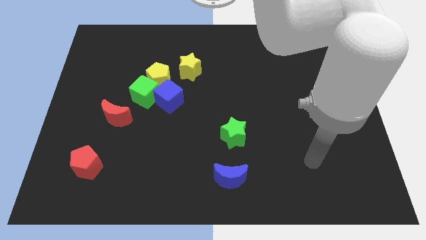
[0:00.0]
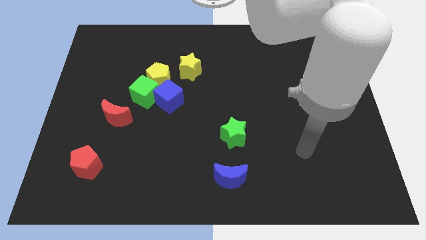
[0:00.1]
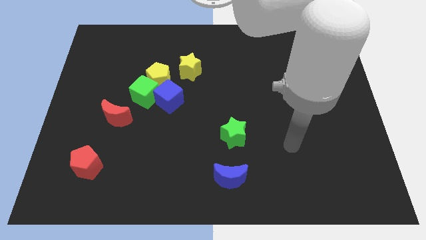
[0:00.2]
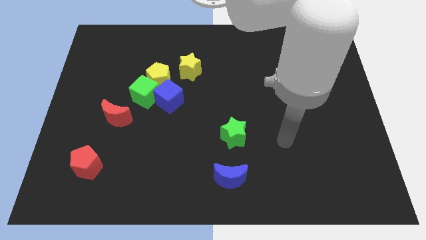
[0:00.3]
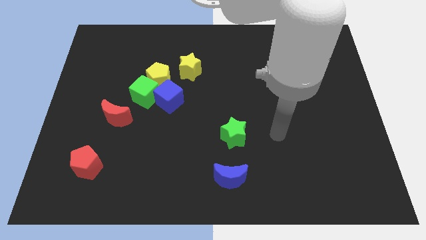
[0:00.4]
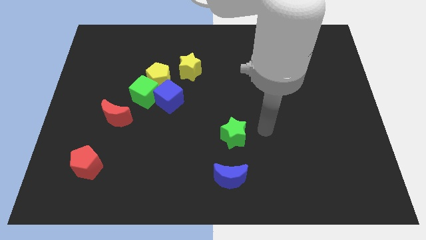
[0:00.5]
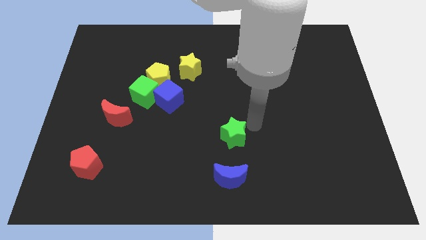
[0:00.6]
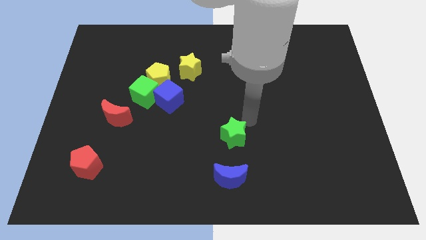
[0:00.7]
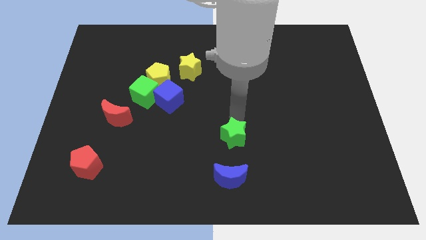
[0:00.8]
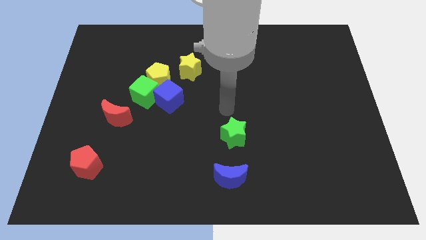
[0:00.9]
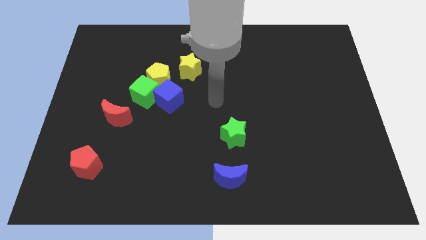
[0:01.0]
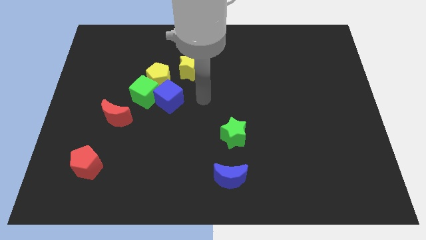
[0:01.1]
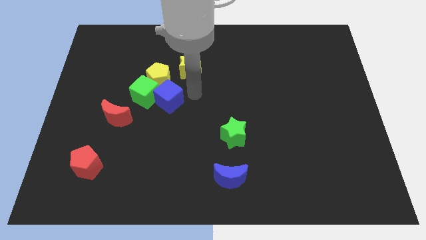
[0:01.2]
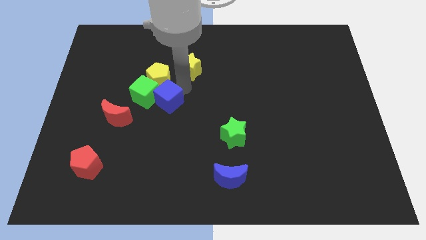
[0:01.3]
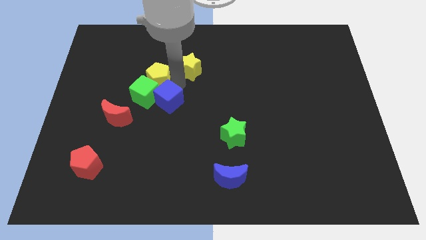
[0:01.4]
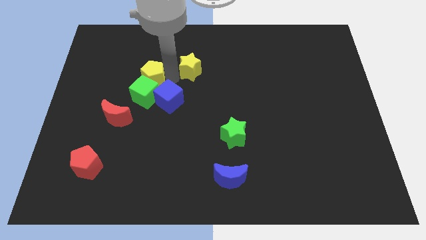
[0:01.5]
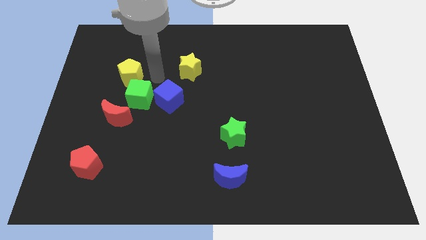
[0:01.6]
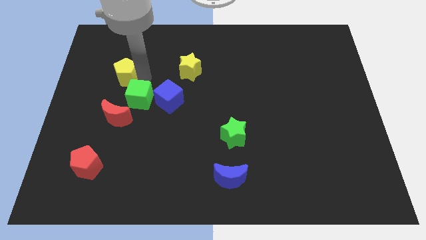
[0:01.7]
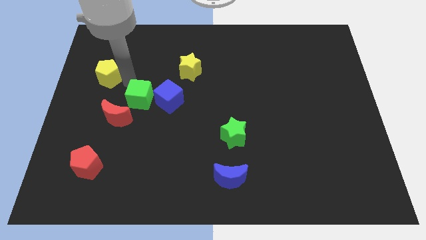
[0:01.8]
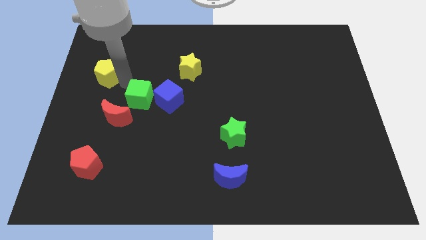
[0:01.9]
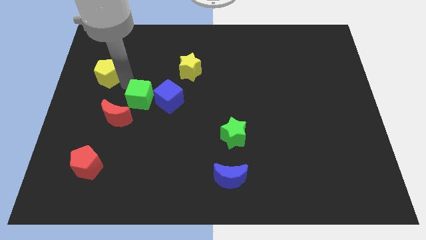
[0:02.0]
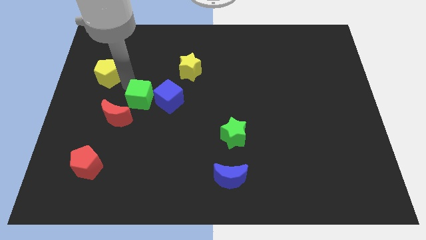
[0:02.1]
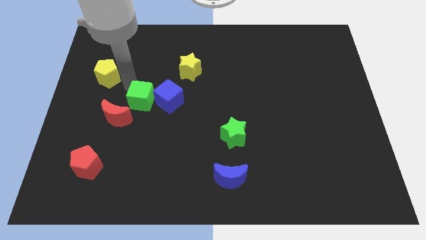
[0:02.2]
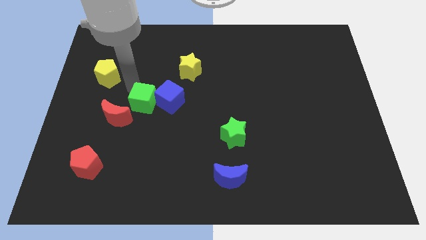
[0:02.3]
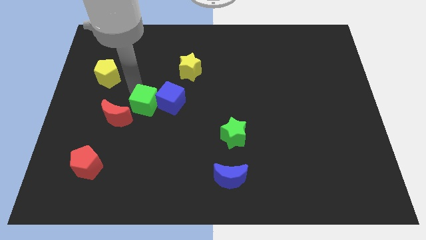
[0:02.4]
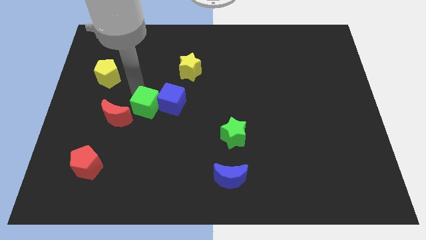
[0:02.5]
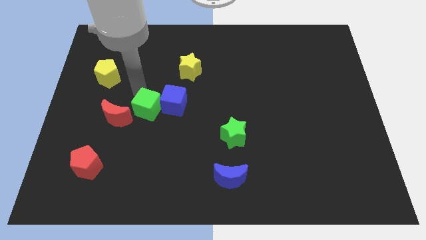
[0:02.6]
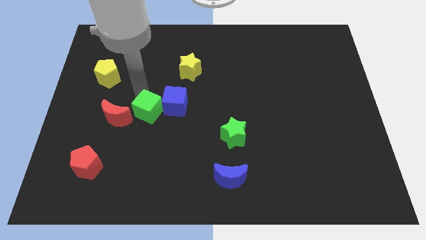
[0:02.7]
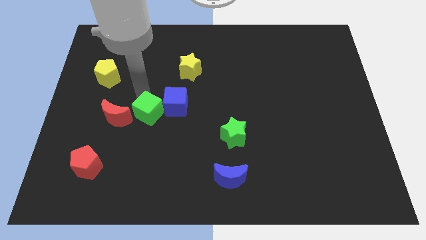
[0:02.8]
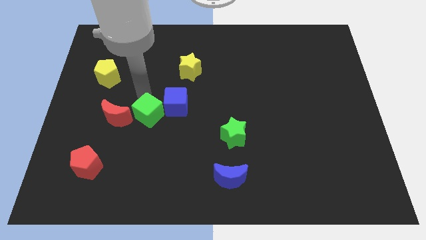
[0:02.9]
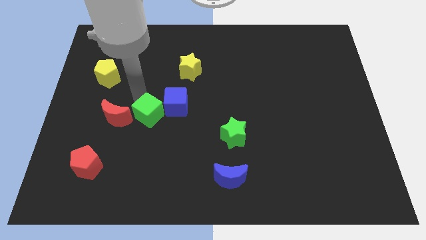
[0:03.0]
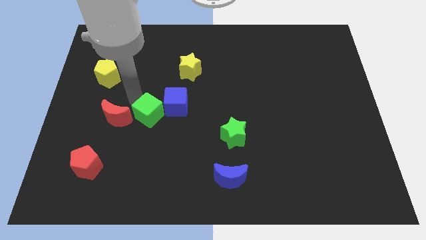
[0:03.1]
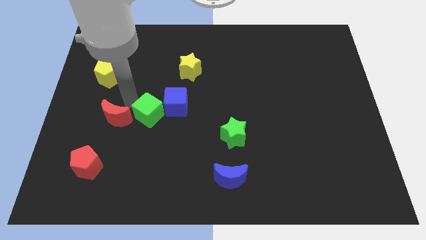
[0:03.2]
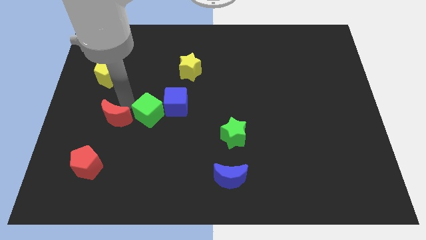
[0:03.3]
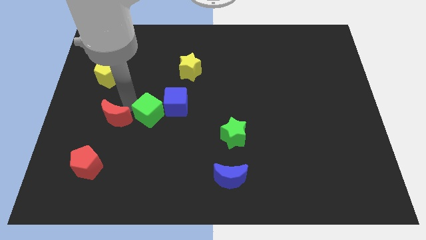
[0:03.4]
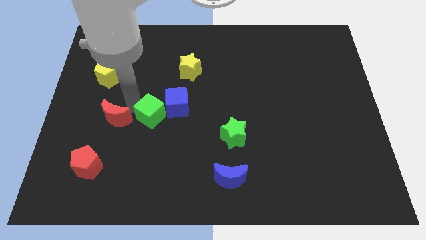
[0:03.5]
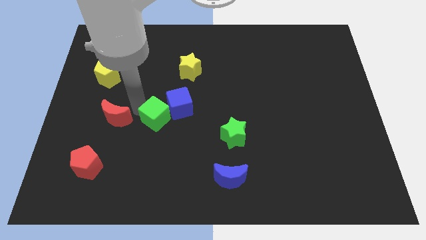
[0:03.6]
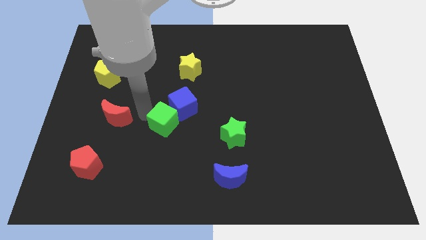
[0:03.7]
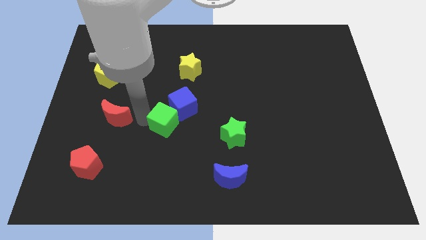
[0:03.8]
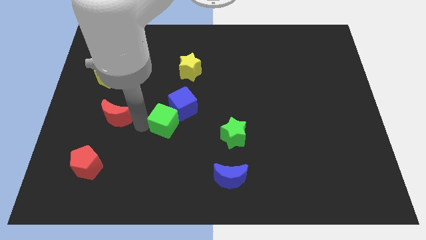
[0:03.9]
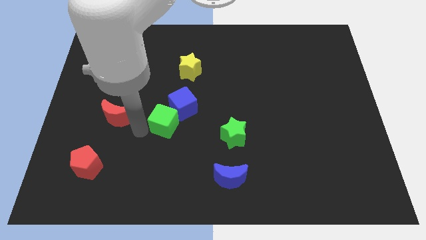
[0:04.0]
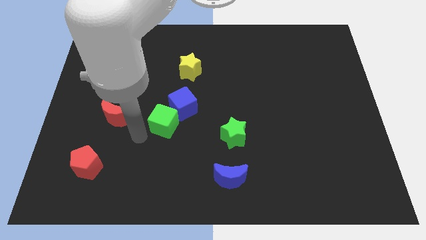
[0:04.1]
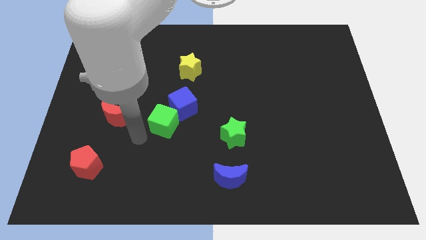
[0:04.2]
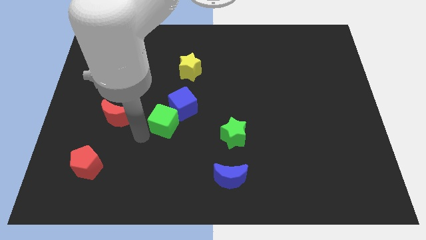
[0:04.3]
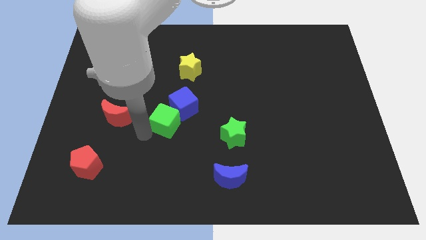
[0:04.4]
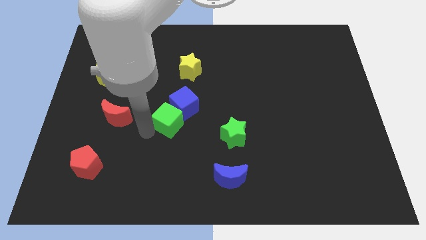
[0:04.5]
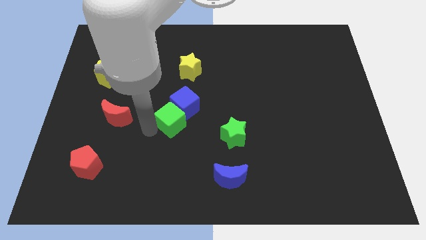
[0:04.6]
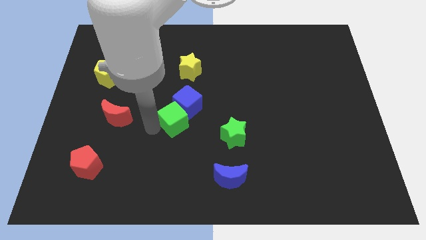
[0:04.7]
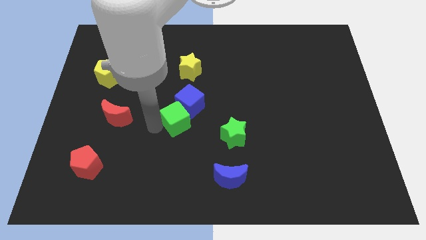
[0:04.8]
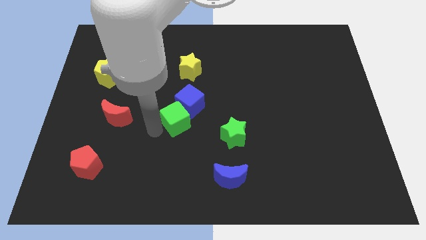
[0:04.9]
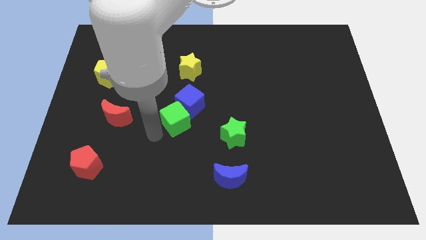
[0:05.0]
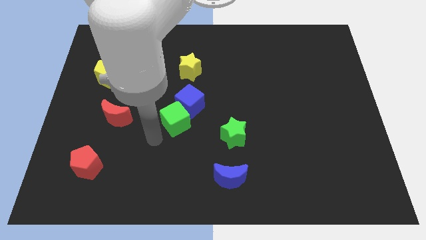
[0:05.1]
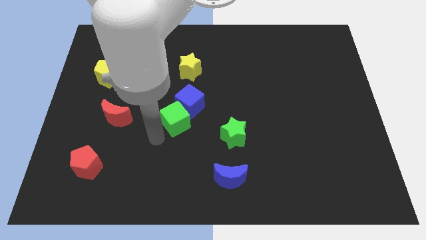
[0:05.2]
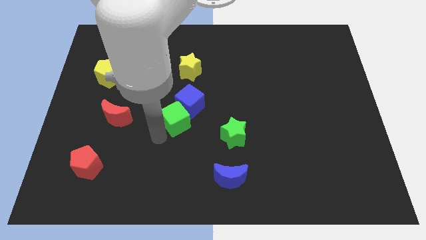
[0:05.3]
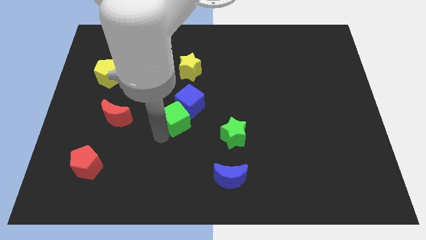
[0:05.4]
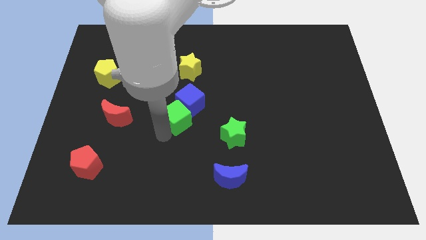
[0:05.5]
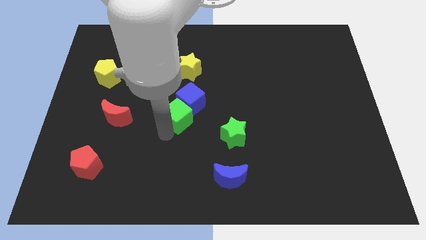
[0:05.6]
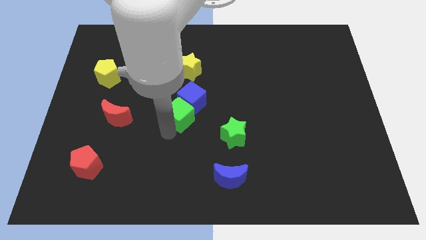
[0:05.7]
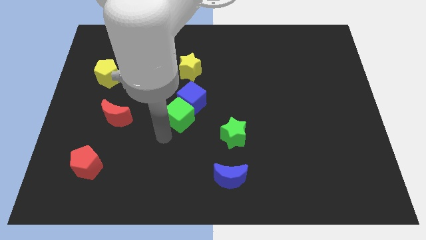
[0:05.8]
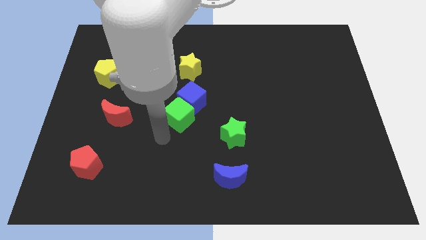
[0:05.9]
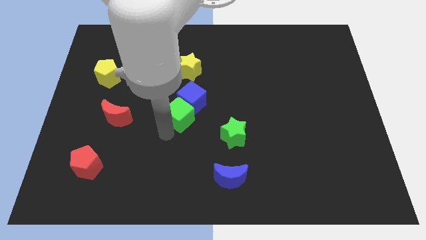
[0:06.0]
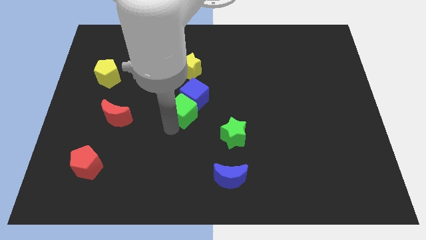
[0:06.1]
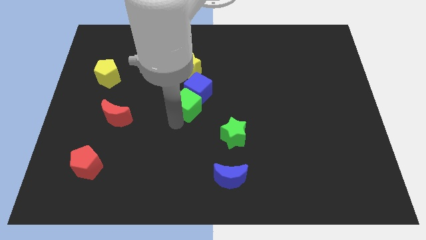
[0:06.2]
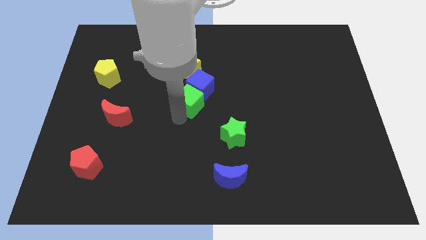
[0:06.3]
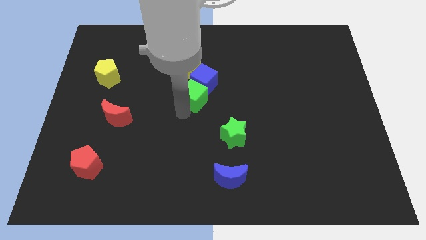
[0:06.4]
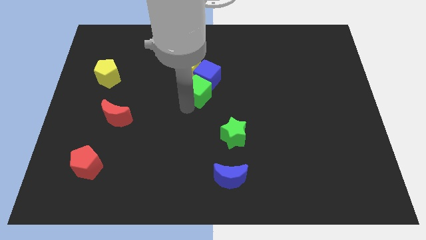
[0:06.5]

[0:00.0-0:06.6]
push the green cube to the bottom right of the yellow star

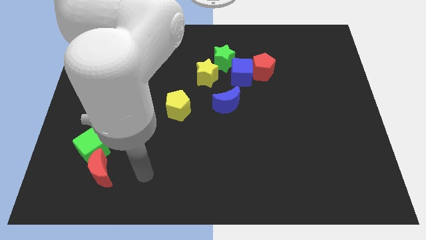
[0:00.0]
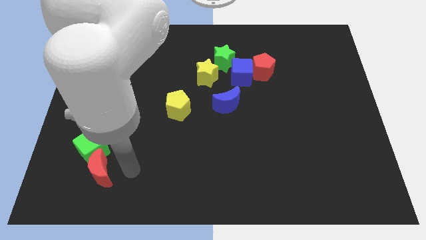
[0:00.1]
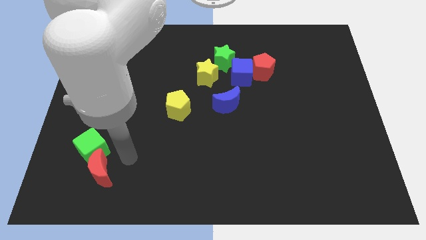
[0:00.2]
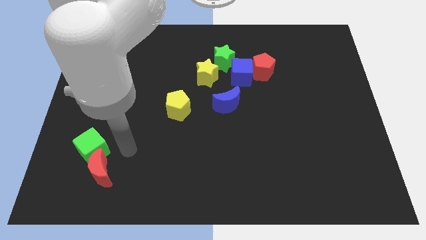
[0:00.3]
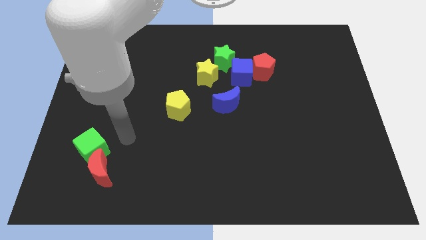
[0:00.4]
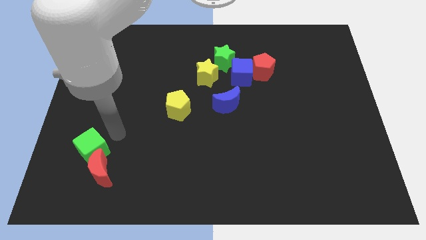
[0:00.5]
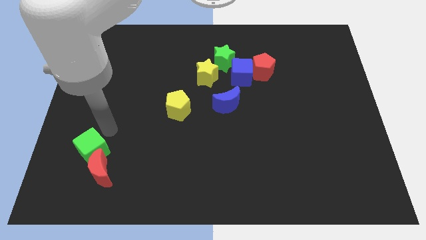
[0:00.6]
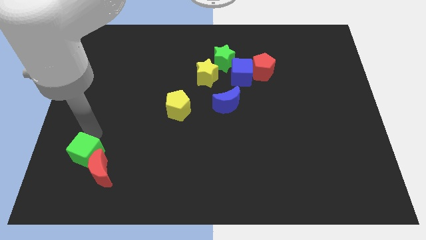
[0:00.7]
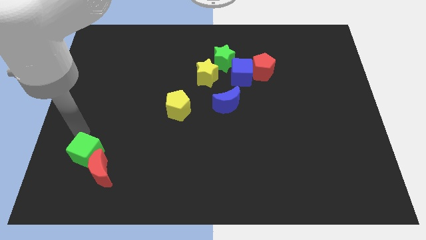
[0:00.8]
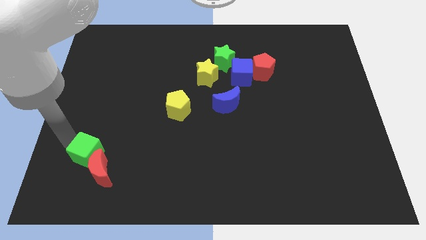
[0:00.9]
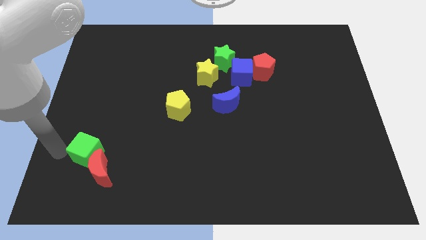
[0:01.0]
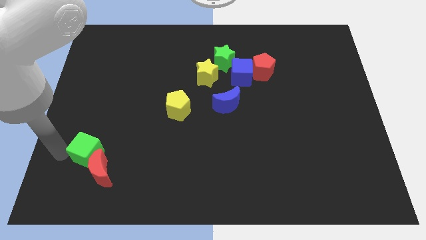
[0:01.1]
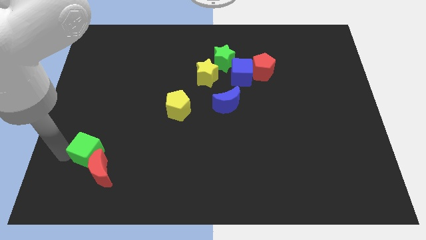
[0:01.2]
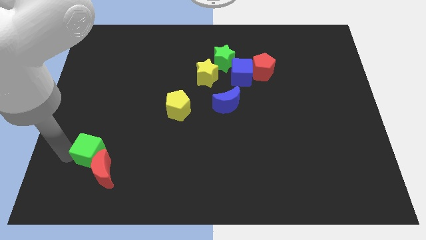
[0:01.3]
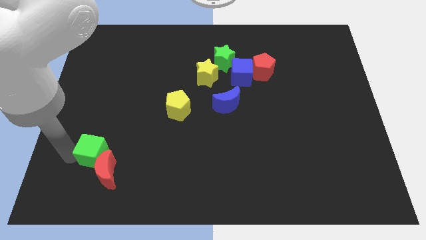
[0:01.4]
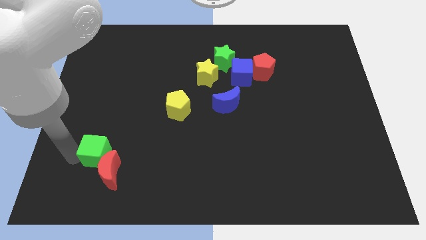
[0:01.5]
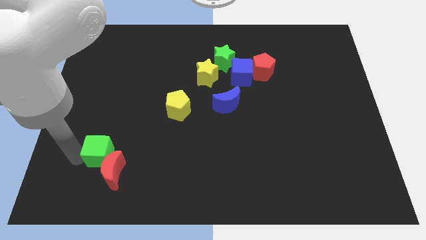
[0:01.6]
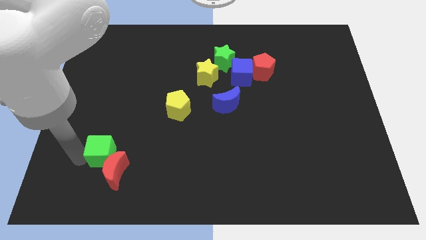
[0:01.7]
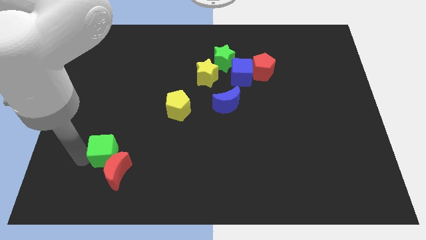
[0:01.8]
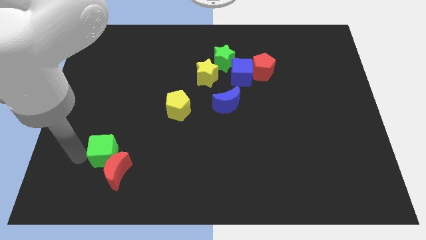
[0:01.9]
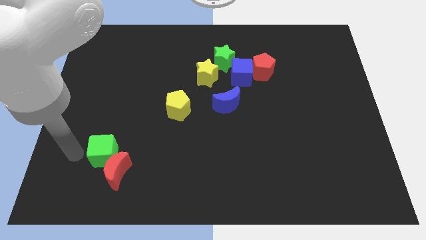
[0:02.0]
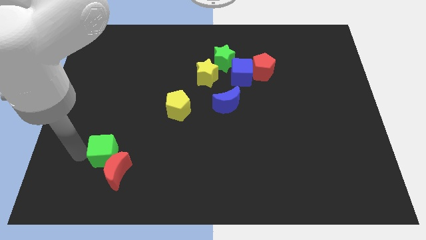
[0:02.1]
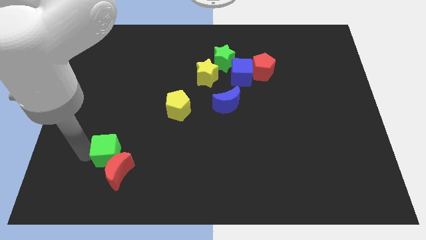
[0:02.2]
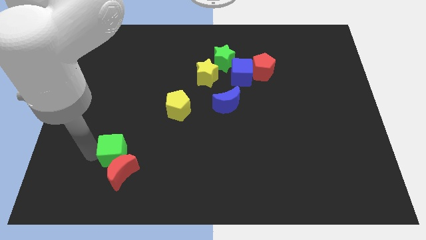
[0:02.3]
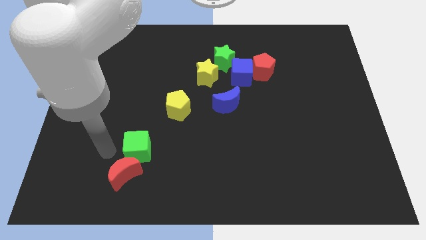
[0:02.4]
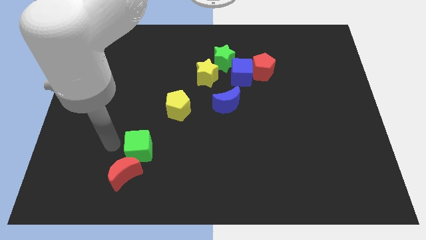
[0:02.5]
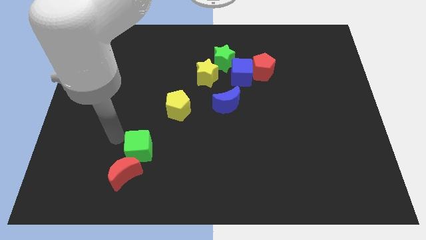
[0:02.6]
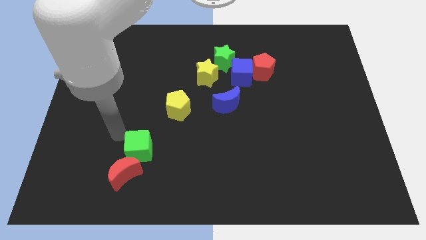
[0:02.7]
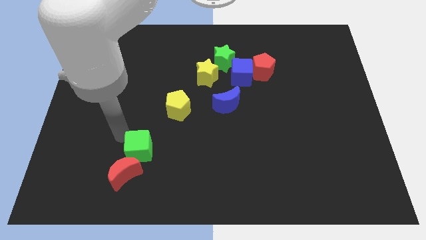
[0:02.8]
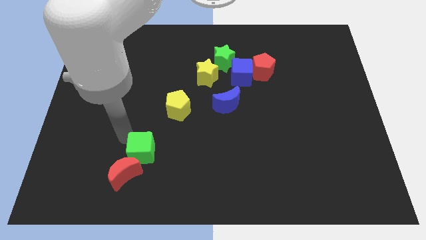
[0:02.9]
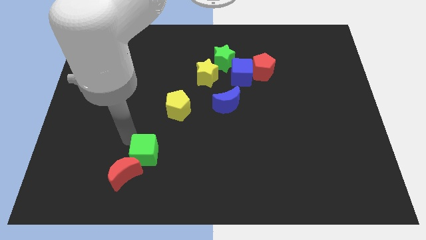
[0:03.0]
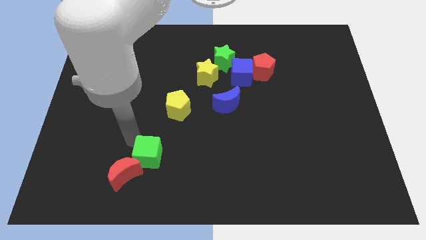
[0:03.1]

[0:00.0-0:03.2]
put the green cube right of the red moon
